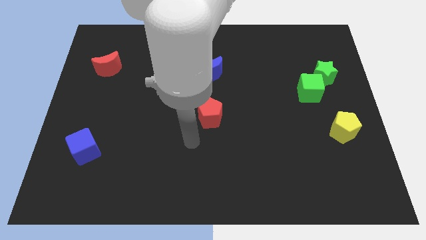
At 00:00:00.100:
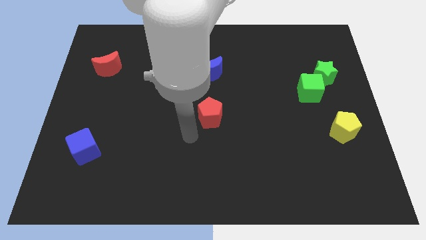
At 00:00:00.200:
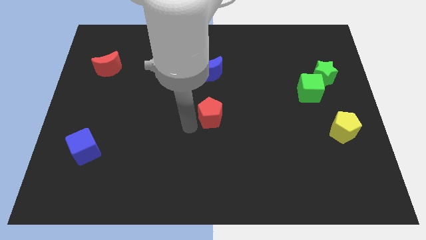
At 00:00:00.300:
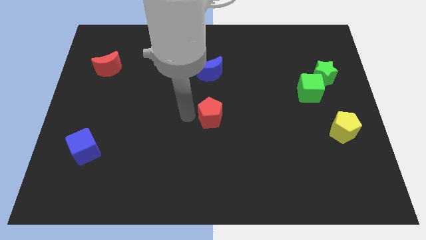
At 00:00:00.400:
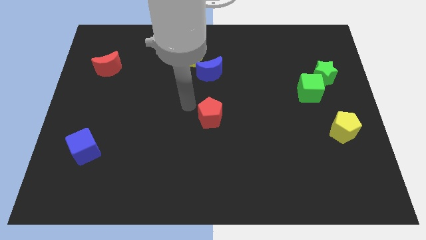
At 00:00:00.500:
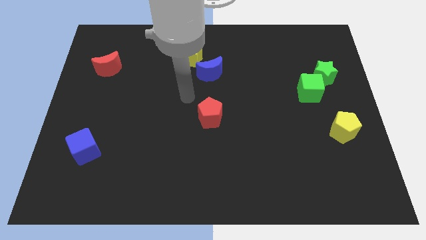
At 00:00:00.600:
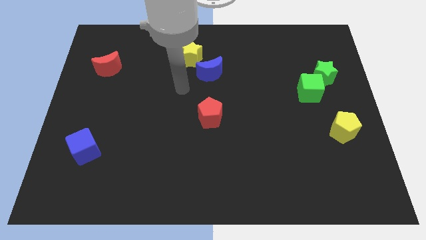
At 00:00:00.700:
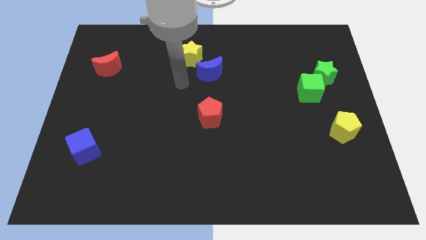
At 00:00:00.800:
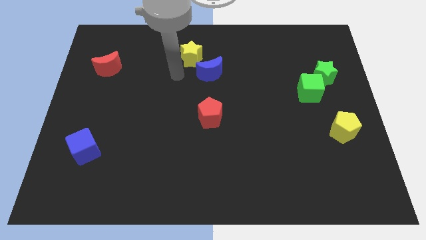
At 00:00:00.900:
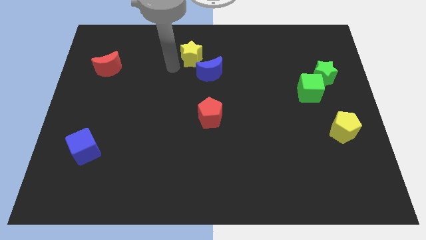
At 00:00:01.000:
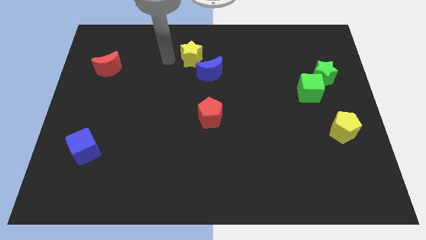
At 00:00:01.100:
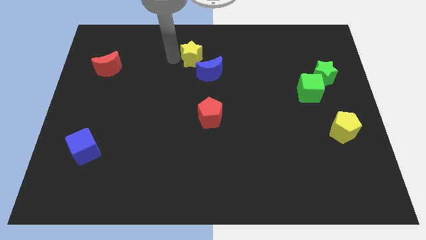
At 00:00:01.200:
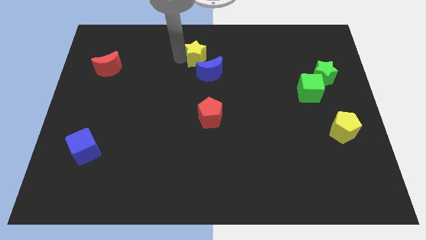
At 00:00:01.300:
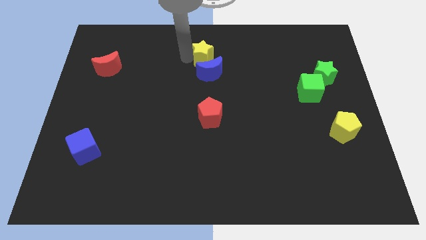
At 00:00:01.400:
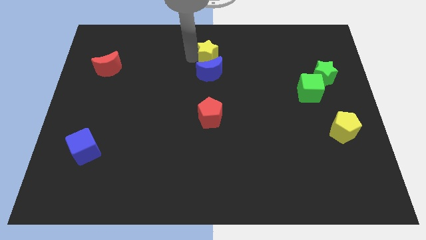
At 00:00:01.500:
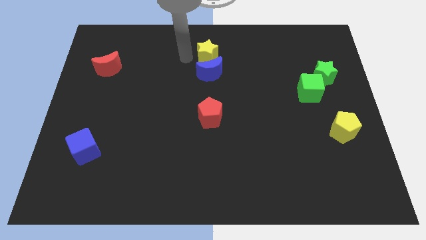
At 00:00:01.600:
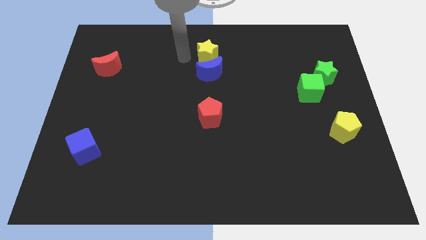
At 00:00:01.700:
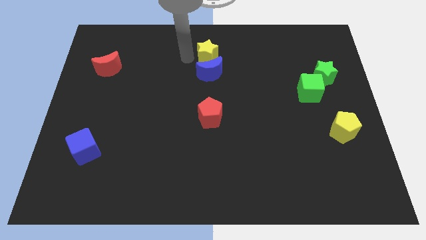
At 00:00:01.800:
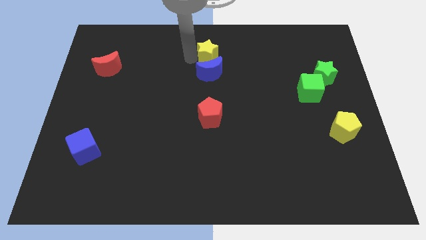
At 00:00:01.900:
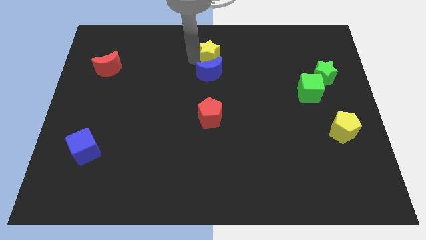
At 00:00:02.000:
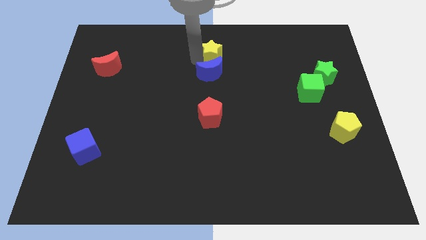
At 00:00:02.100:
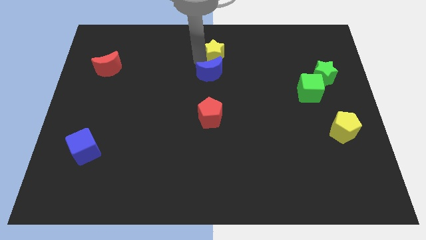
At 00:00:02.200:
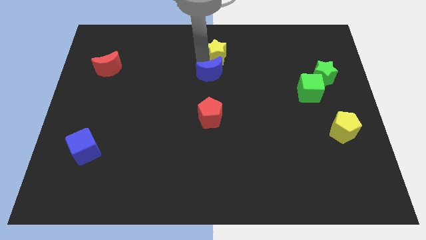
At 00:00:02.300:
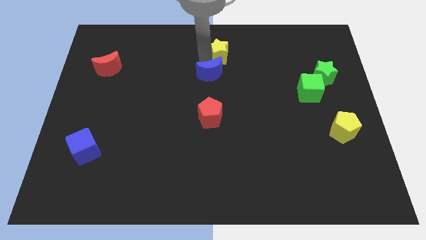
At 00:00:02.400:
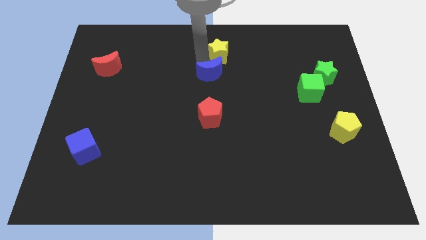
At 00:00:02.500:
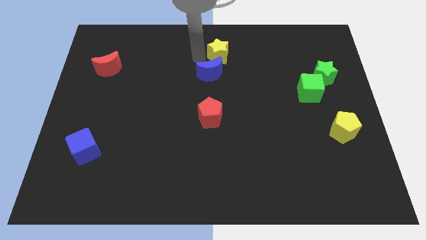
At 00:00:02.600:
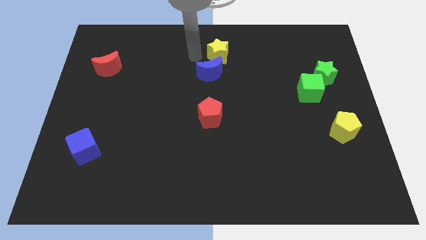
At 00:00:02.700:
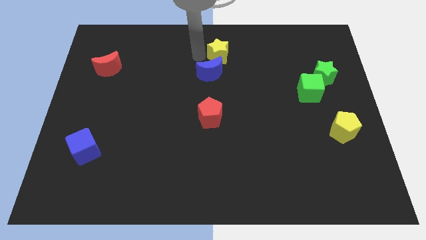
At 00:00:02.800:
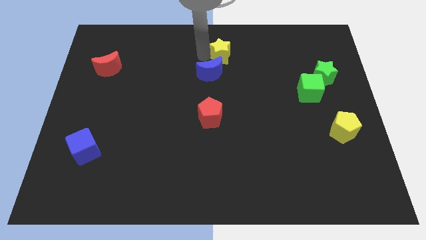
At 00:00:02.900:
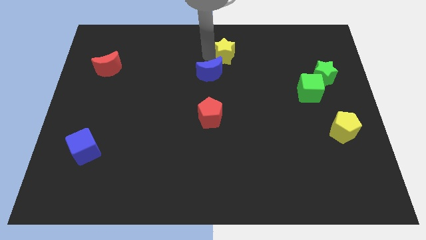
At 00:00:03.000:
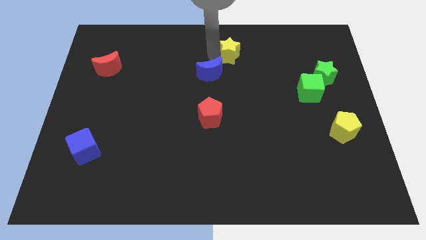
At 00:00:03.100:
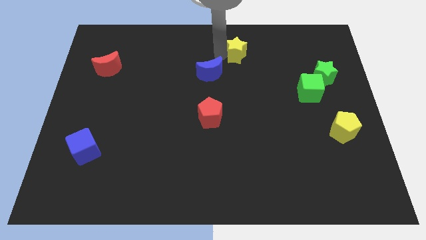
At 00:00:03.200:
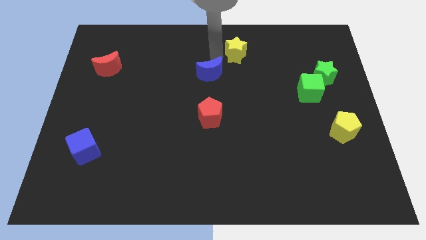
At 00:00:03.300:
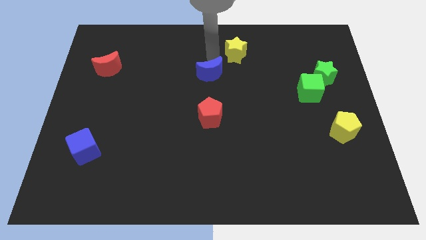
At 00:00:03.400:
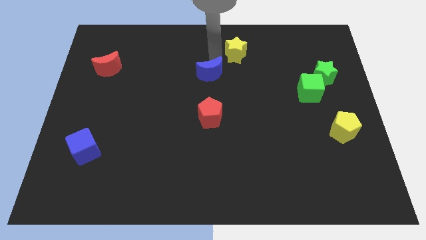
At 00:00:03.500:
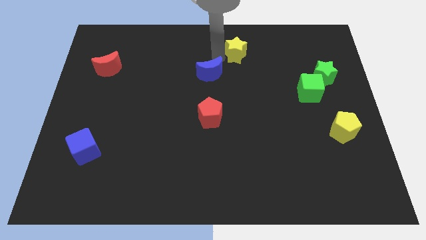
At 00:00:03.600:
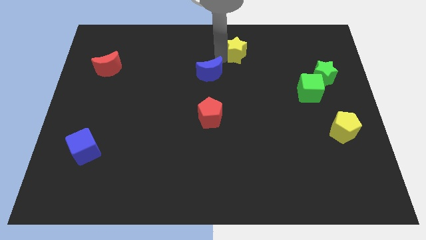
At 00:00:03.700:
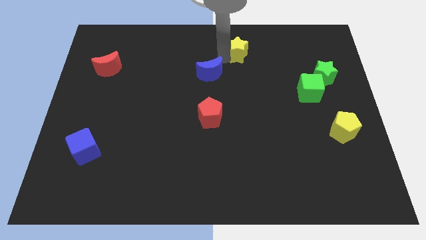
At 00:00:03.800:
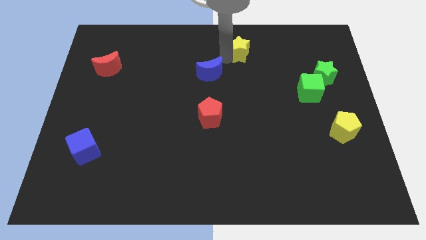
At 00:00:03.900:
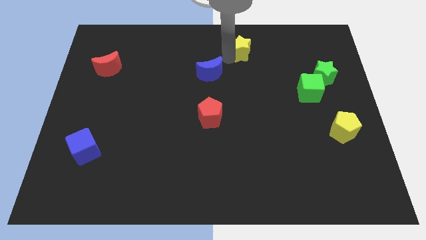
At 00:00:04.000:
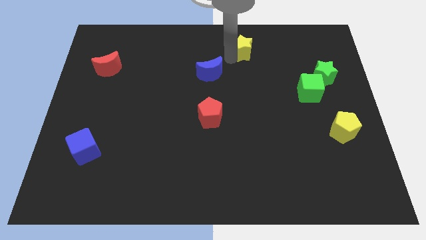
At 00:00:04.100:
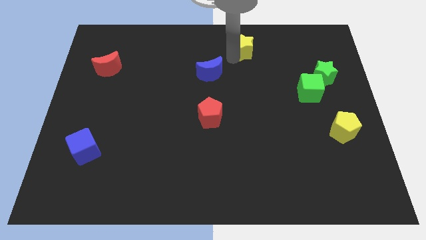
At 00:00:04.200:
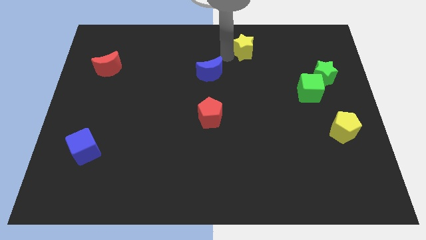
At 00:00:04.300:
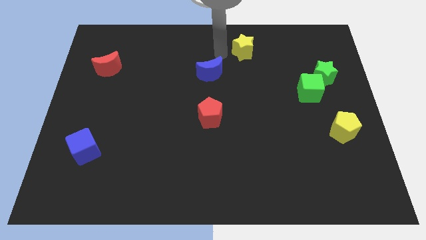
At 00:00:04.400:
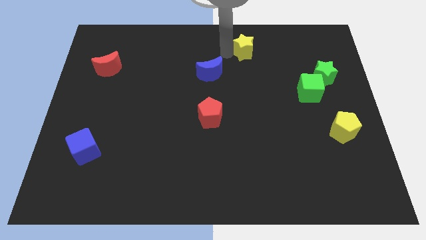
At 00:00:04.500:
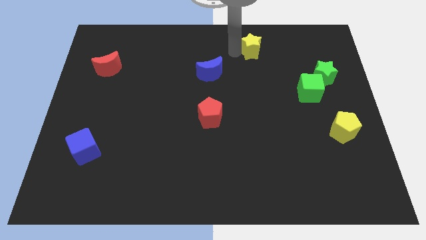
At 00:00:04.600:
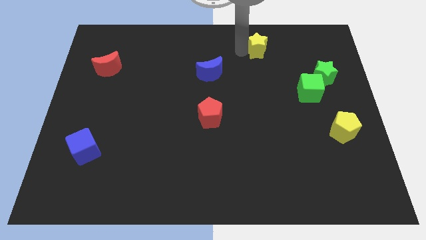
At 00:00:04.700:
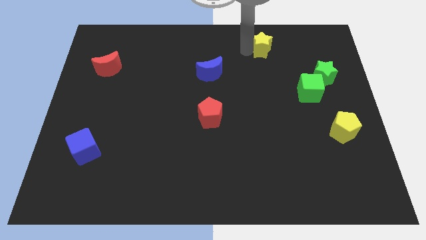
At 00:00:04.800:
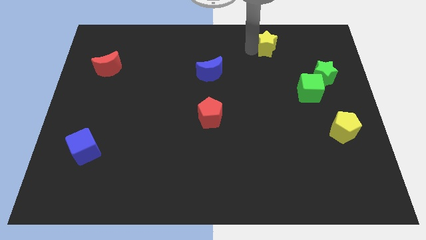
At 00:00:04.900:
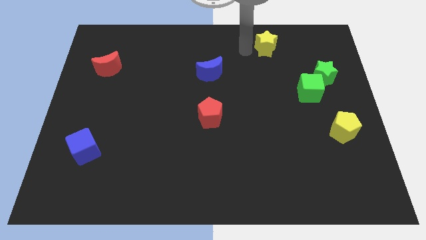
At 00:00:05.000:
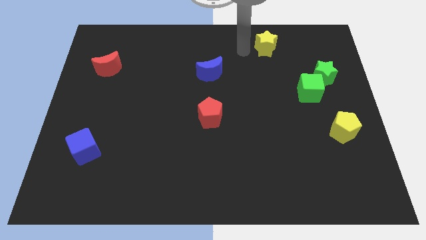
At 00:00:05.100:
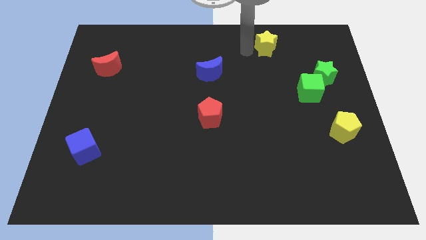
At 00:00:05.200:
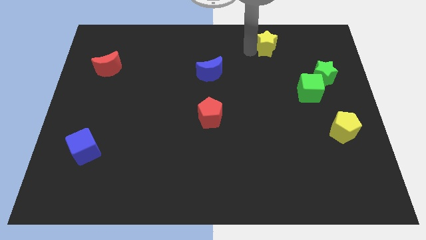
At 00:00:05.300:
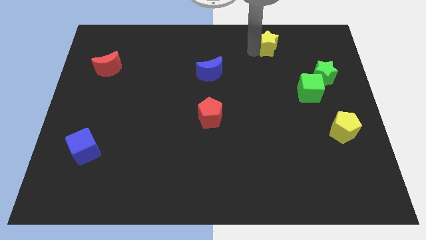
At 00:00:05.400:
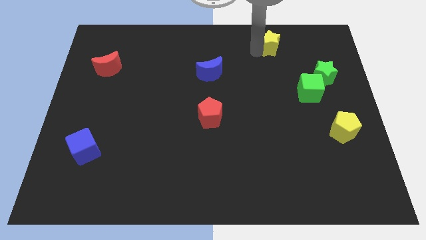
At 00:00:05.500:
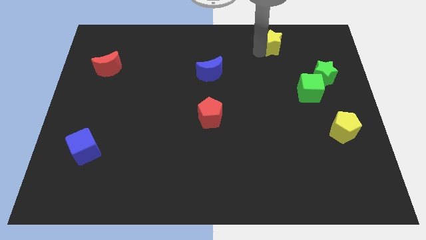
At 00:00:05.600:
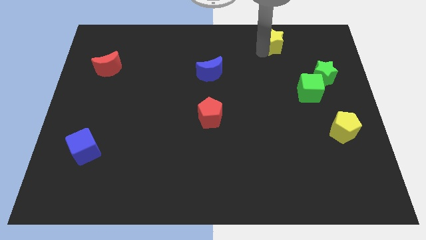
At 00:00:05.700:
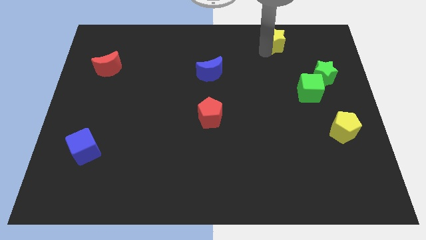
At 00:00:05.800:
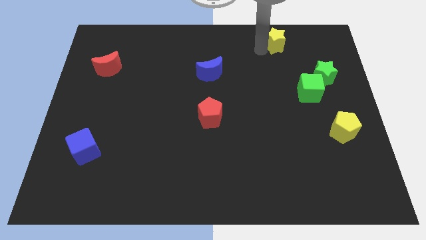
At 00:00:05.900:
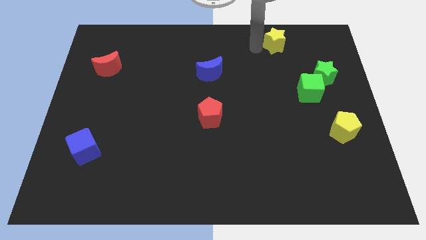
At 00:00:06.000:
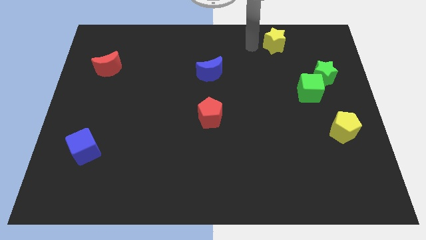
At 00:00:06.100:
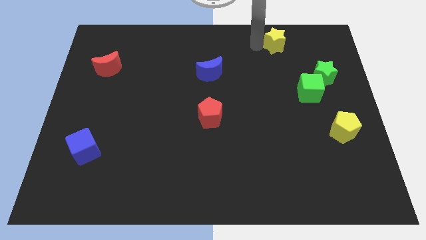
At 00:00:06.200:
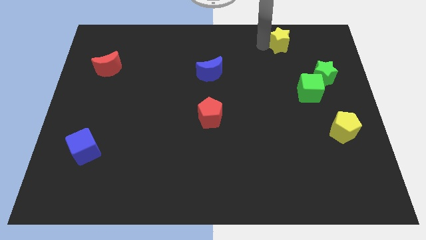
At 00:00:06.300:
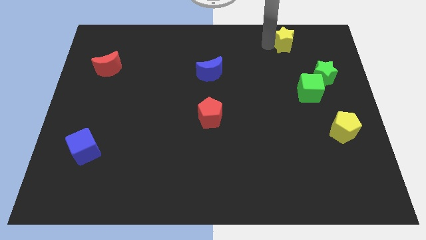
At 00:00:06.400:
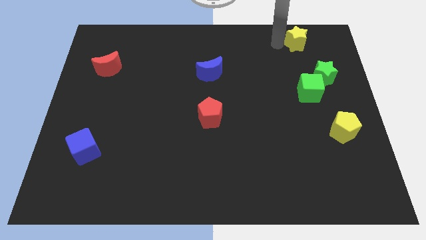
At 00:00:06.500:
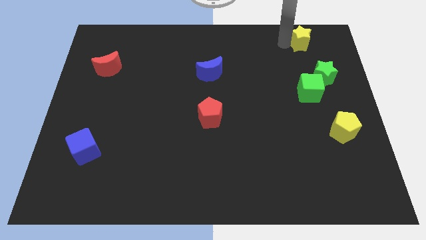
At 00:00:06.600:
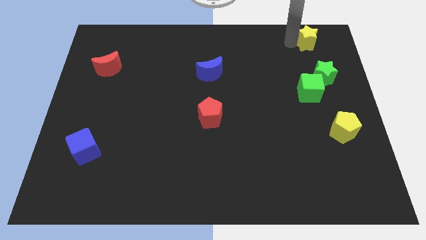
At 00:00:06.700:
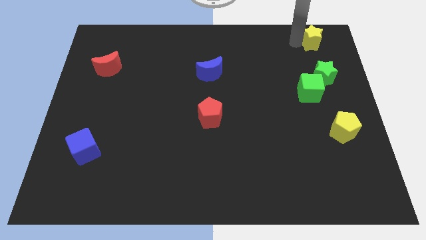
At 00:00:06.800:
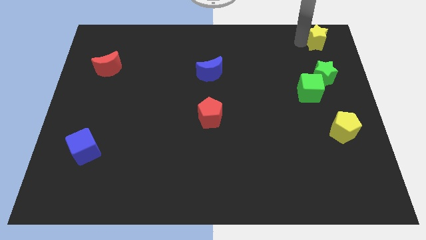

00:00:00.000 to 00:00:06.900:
put the yellow star to the top right

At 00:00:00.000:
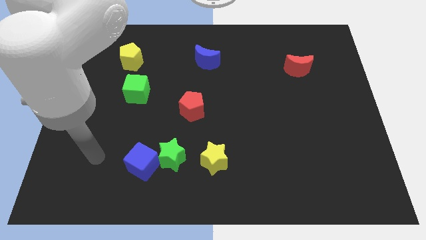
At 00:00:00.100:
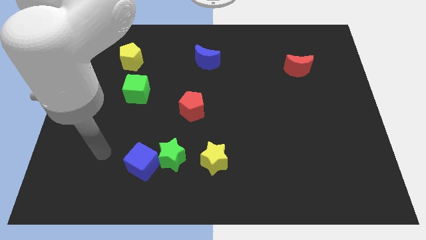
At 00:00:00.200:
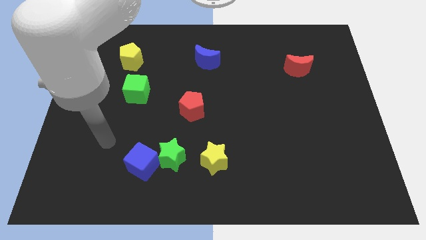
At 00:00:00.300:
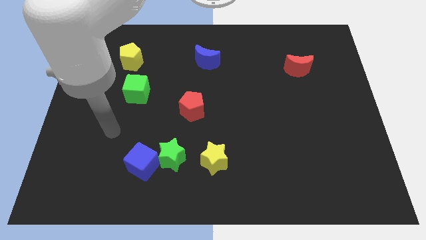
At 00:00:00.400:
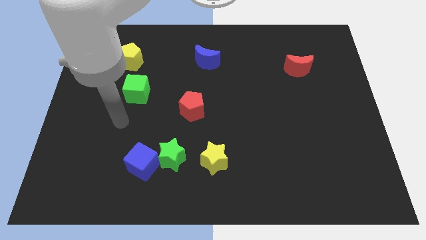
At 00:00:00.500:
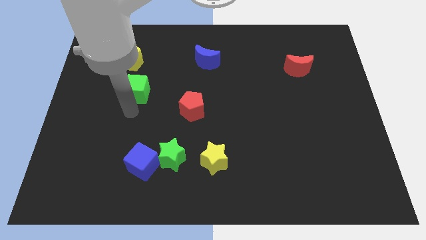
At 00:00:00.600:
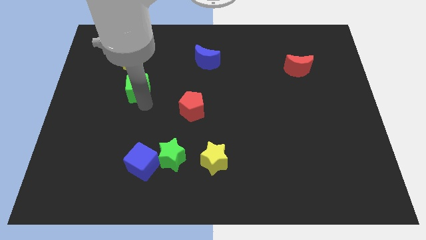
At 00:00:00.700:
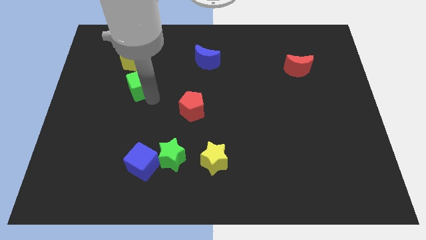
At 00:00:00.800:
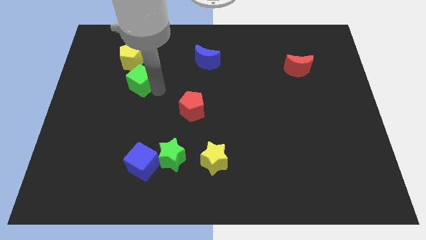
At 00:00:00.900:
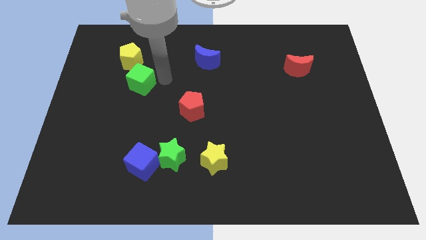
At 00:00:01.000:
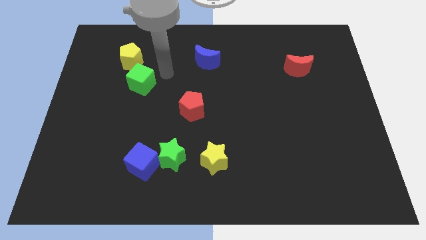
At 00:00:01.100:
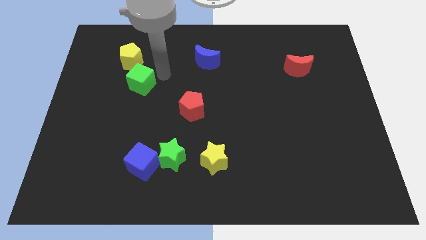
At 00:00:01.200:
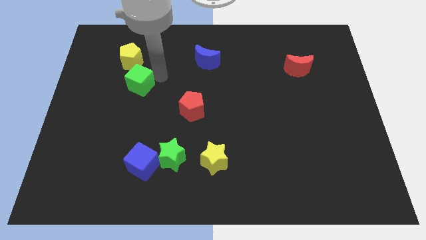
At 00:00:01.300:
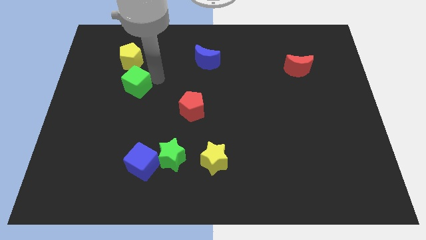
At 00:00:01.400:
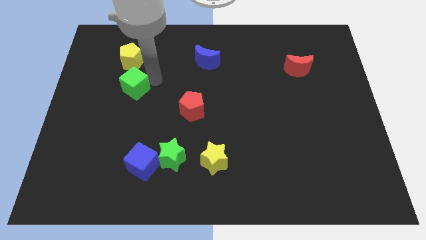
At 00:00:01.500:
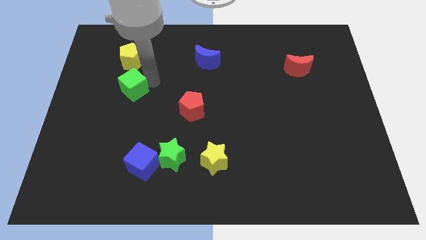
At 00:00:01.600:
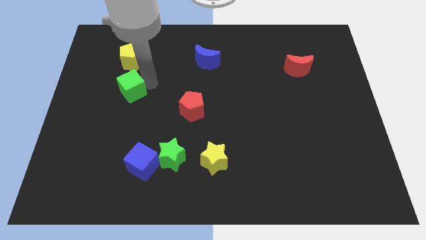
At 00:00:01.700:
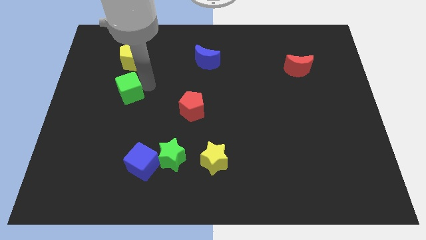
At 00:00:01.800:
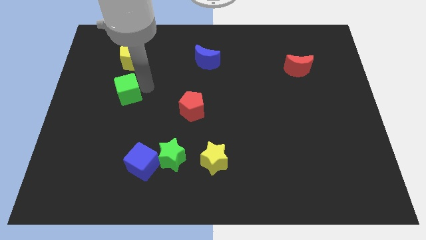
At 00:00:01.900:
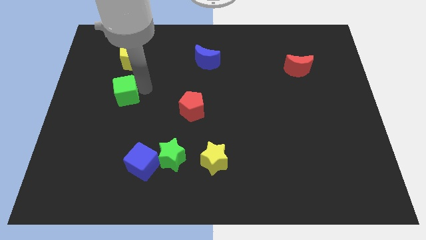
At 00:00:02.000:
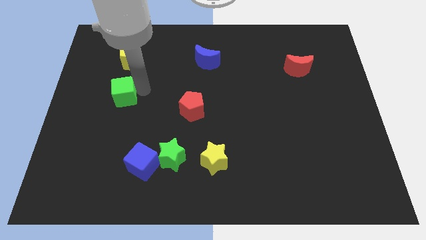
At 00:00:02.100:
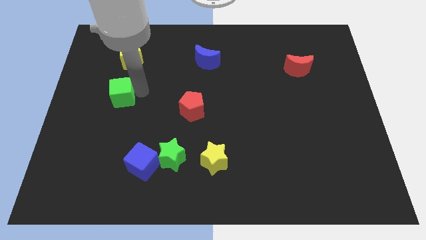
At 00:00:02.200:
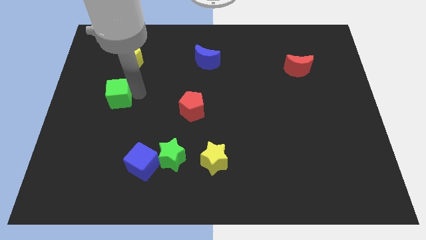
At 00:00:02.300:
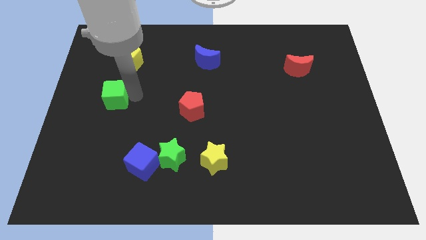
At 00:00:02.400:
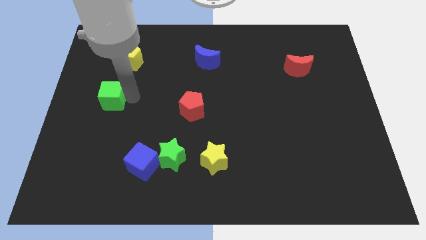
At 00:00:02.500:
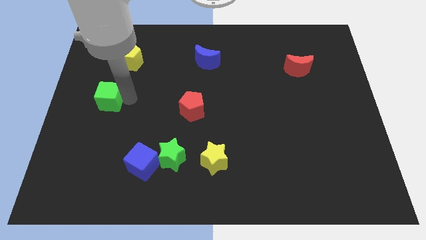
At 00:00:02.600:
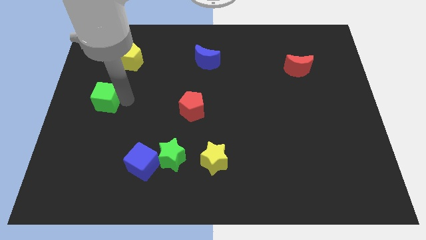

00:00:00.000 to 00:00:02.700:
slide the green cube to the left side of the board
